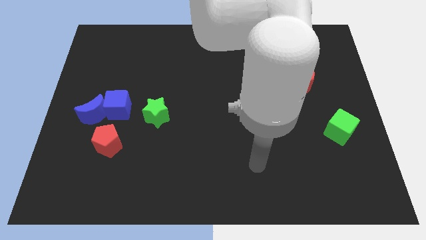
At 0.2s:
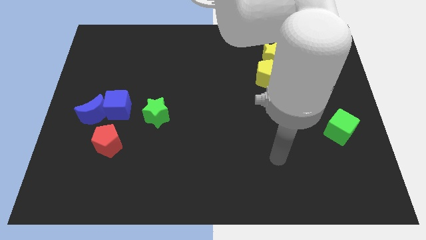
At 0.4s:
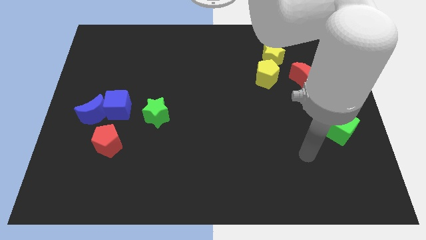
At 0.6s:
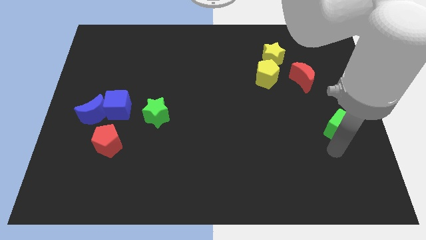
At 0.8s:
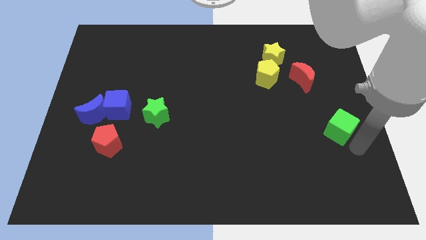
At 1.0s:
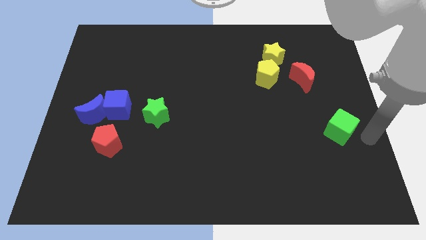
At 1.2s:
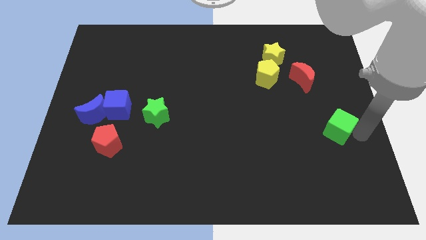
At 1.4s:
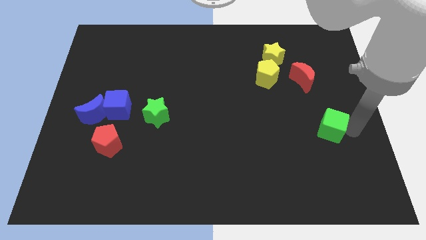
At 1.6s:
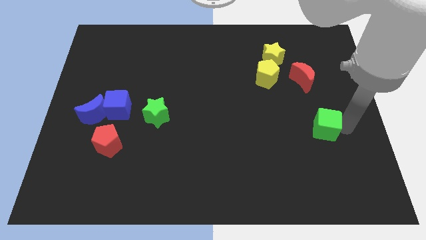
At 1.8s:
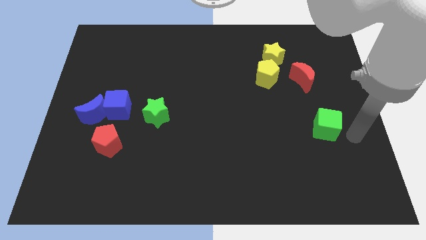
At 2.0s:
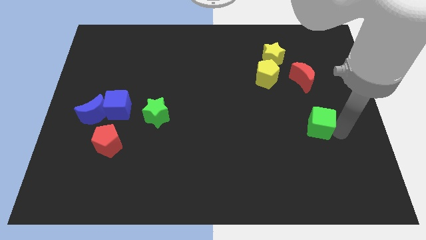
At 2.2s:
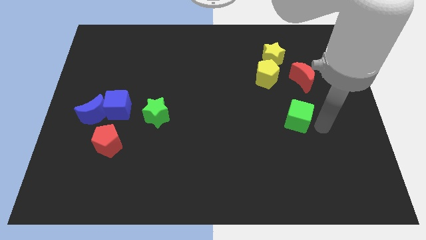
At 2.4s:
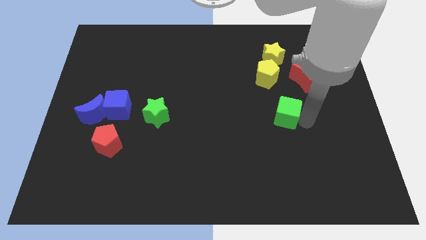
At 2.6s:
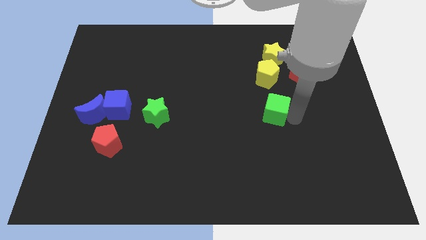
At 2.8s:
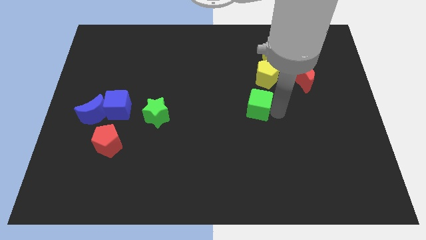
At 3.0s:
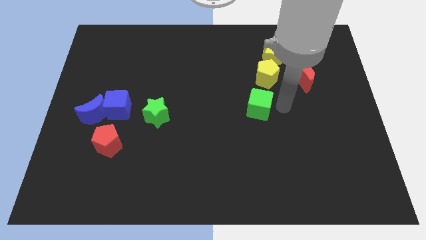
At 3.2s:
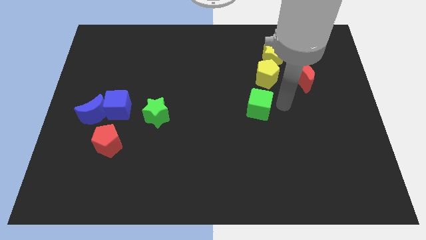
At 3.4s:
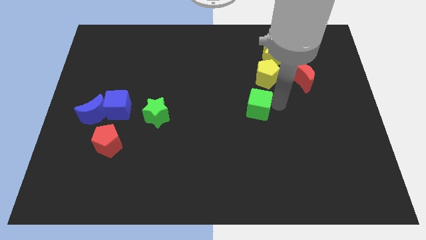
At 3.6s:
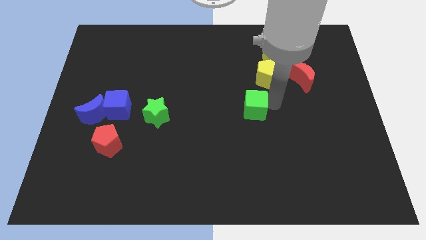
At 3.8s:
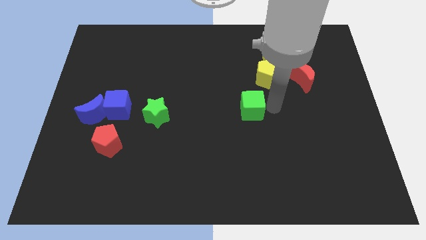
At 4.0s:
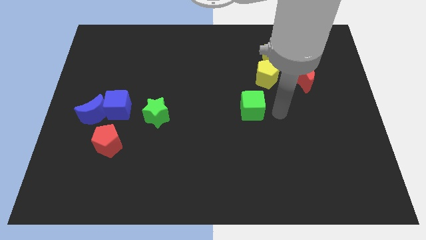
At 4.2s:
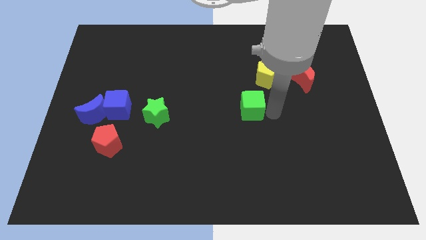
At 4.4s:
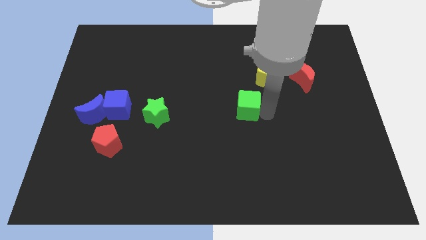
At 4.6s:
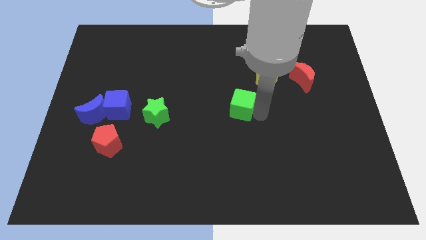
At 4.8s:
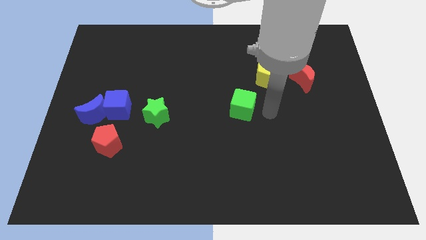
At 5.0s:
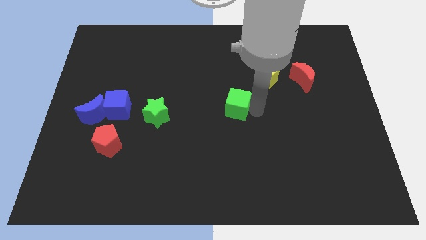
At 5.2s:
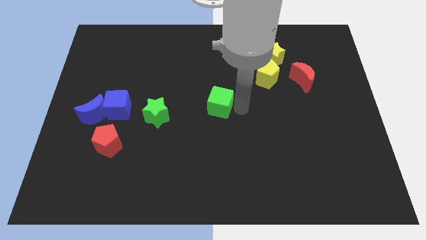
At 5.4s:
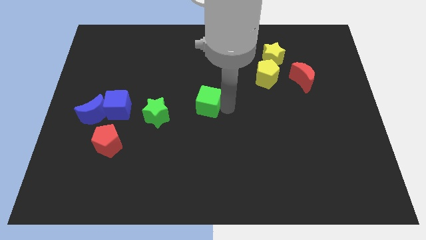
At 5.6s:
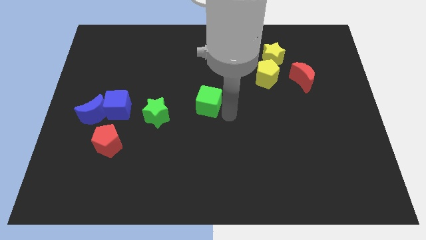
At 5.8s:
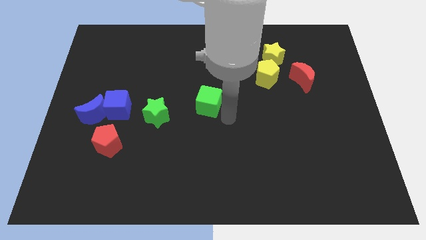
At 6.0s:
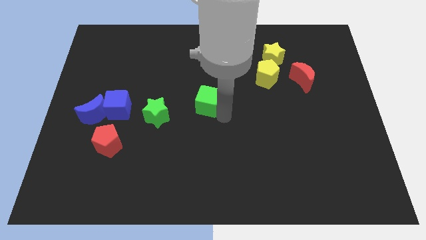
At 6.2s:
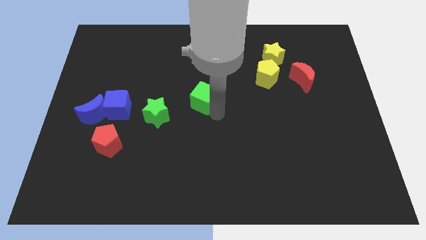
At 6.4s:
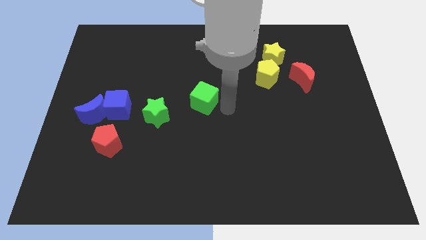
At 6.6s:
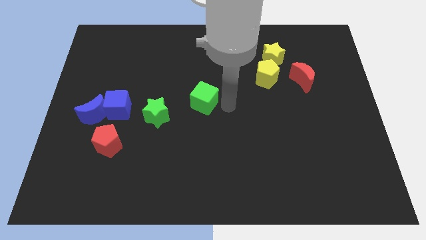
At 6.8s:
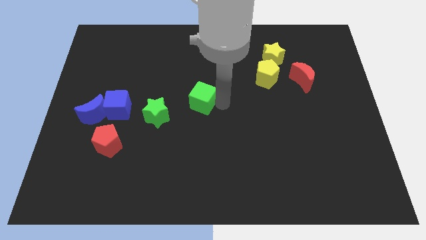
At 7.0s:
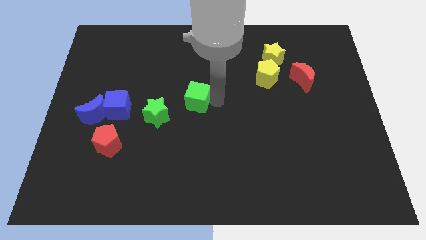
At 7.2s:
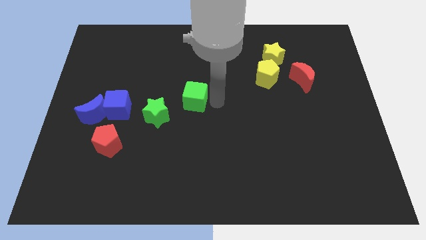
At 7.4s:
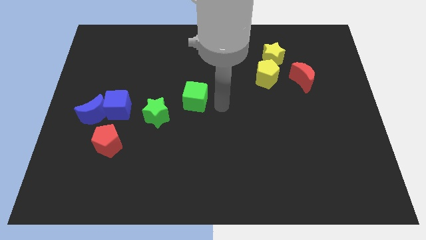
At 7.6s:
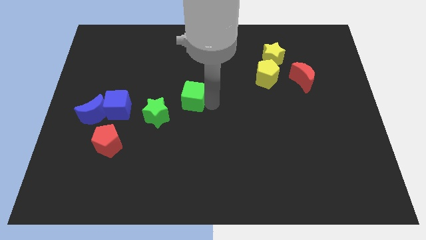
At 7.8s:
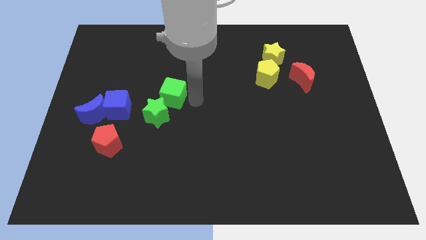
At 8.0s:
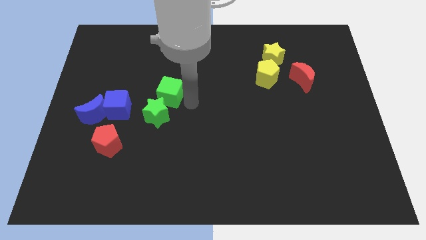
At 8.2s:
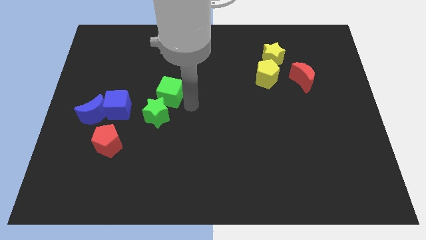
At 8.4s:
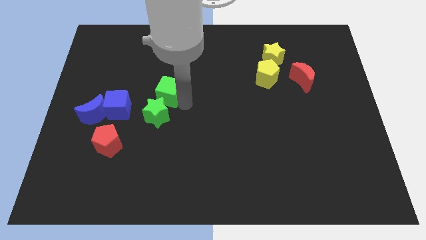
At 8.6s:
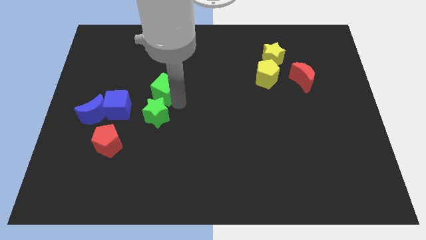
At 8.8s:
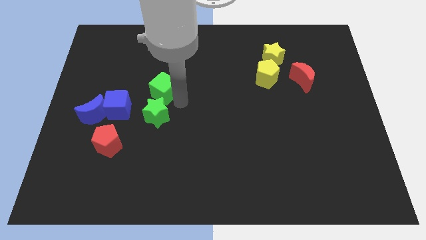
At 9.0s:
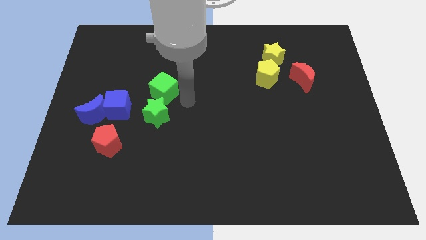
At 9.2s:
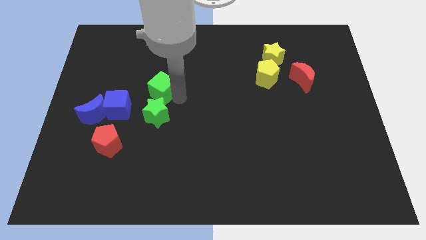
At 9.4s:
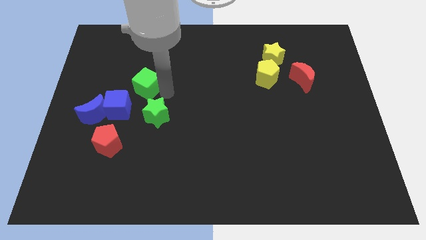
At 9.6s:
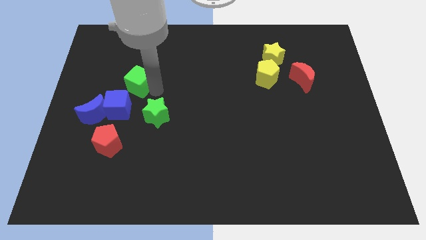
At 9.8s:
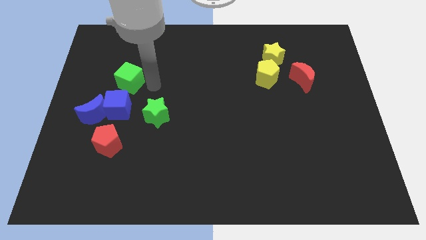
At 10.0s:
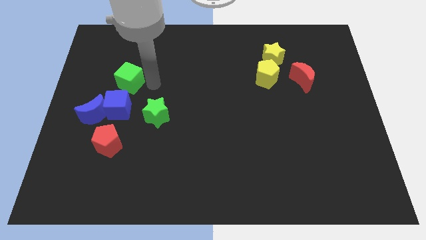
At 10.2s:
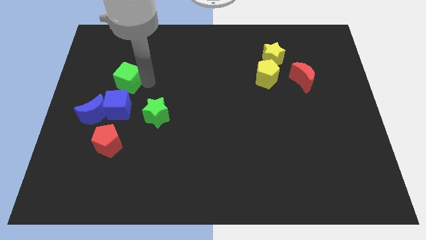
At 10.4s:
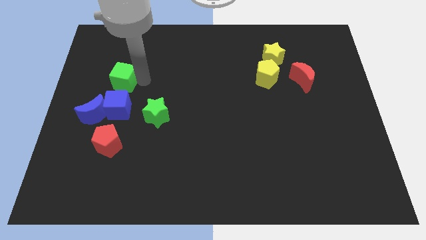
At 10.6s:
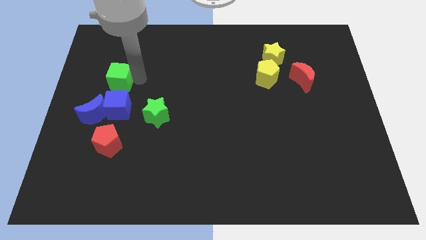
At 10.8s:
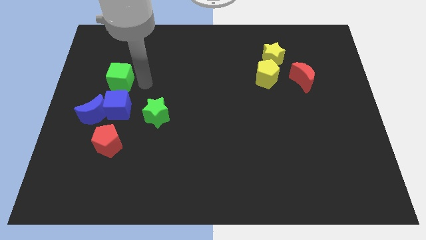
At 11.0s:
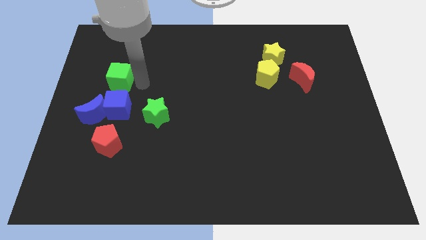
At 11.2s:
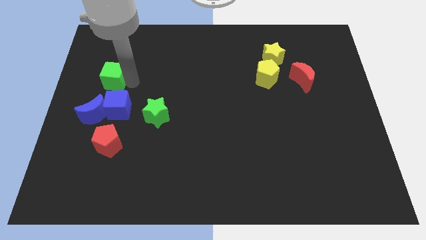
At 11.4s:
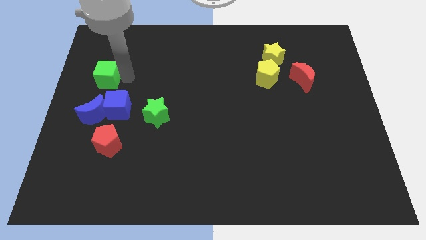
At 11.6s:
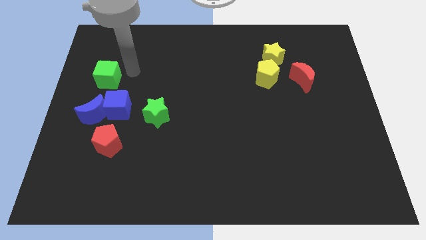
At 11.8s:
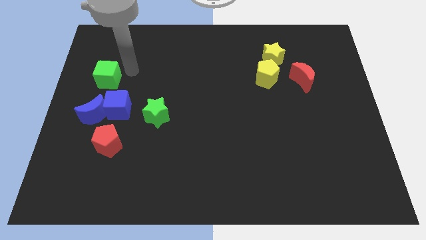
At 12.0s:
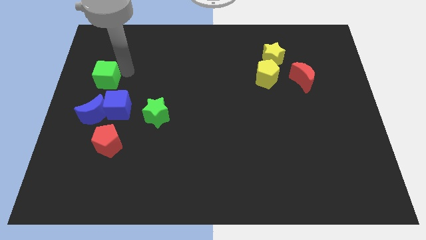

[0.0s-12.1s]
move the green cube to the left side of the board

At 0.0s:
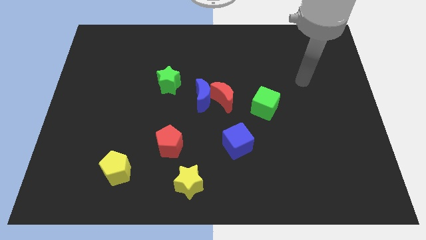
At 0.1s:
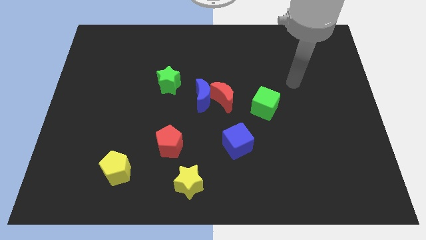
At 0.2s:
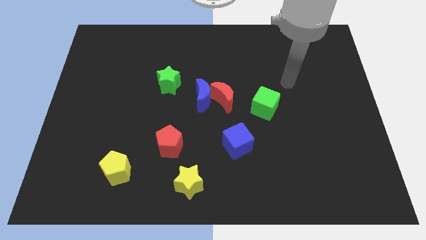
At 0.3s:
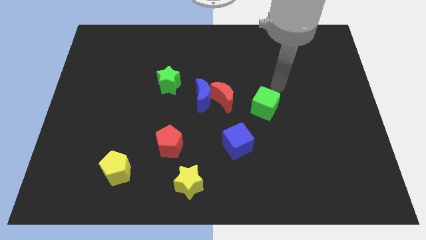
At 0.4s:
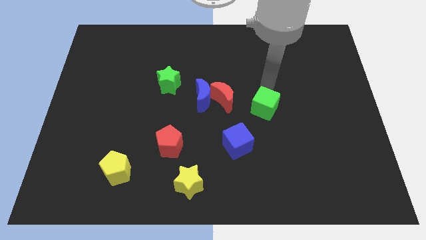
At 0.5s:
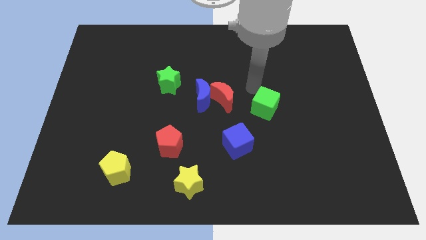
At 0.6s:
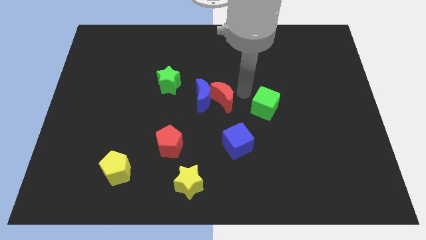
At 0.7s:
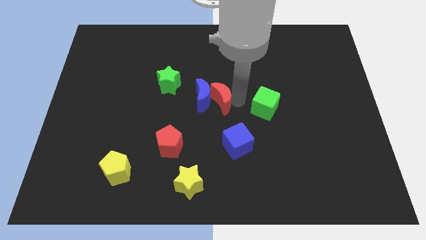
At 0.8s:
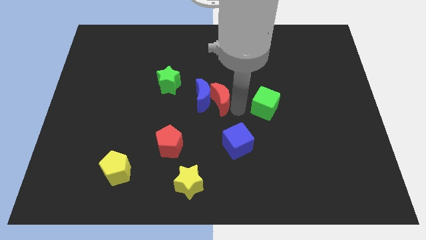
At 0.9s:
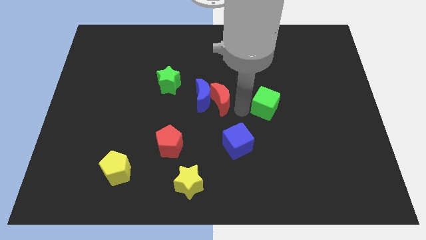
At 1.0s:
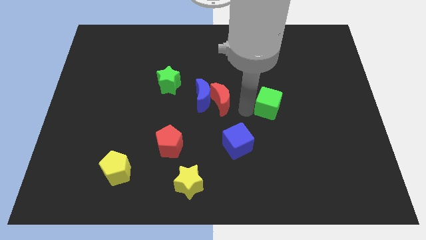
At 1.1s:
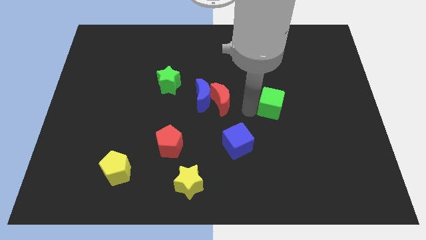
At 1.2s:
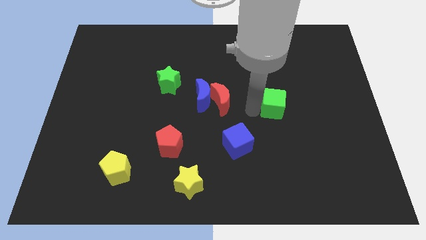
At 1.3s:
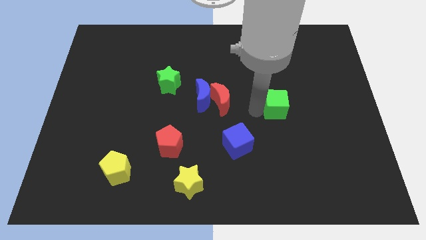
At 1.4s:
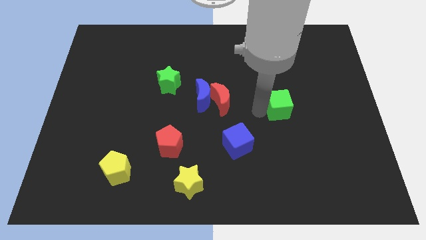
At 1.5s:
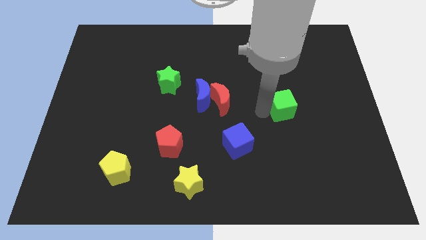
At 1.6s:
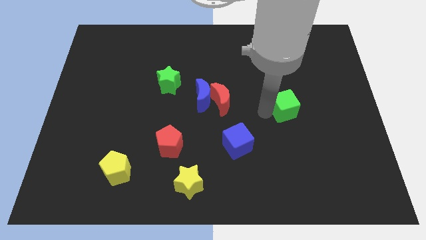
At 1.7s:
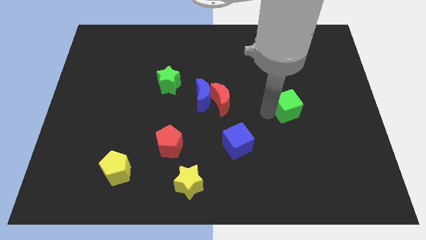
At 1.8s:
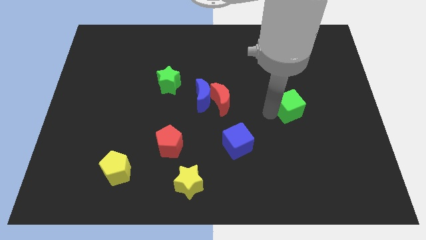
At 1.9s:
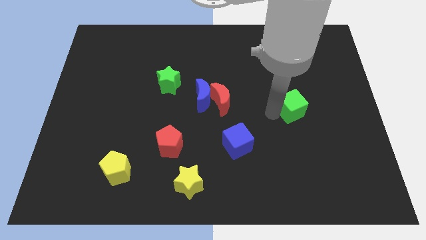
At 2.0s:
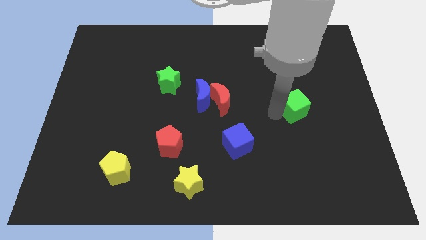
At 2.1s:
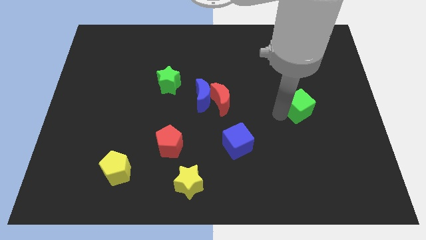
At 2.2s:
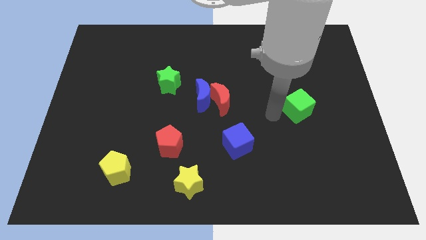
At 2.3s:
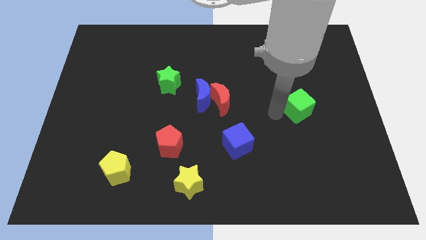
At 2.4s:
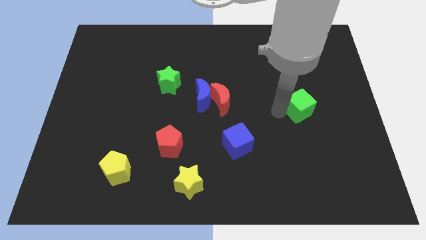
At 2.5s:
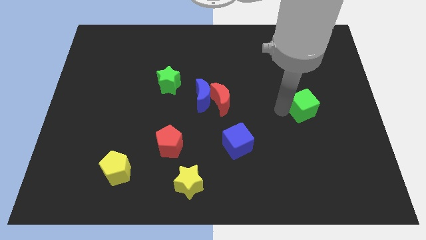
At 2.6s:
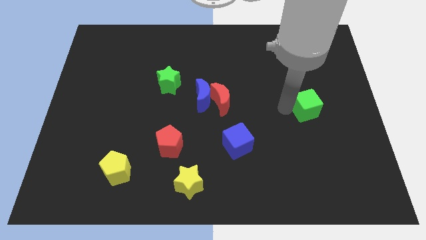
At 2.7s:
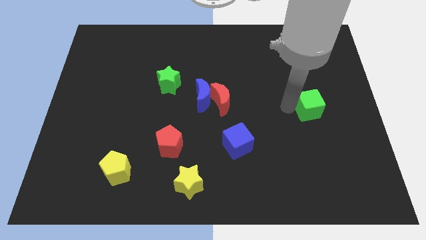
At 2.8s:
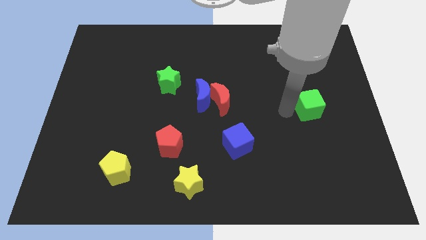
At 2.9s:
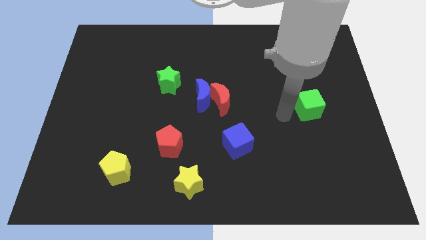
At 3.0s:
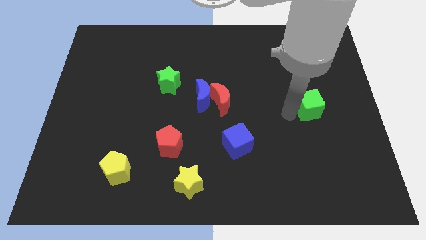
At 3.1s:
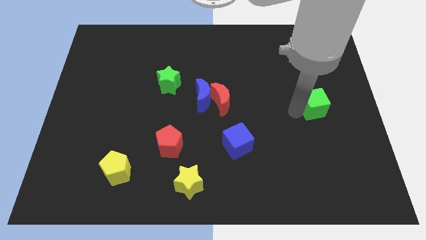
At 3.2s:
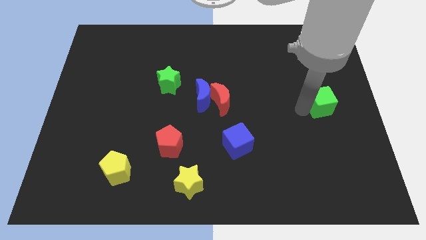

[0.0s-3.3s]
push the green cube to the right side of the board
